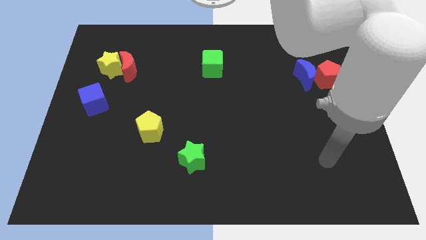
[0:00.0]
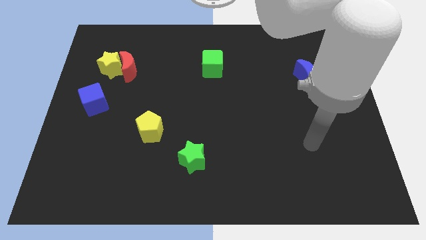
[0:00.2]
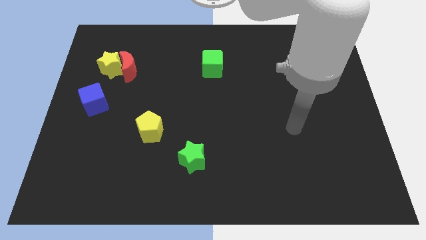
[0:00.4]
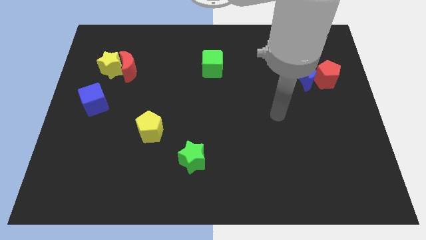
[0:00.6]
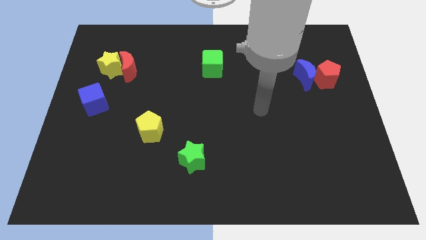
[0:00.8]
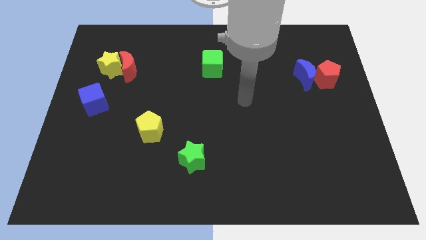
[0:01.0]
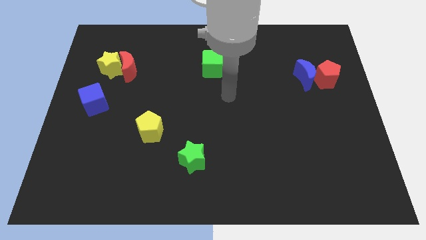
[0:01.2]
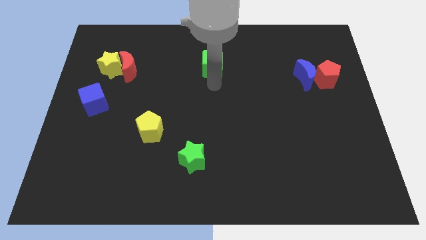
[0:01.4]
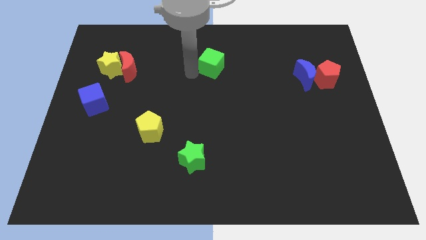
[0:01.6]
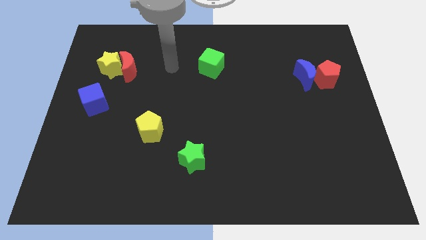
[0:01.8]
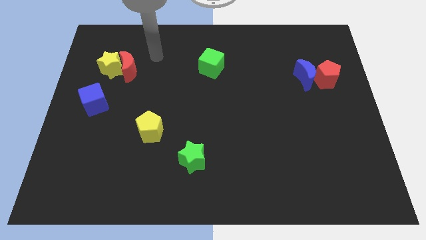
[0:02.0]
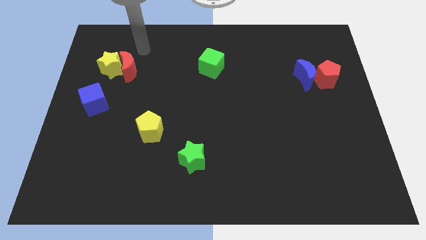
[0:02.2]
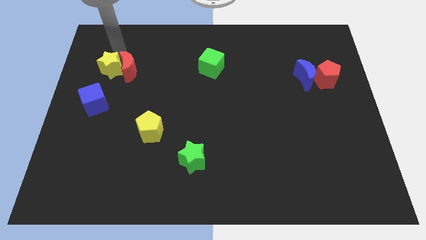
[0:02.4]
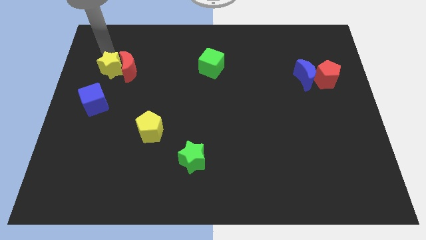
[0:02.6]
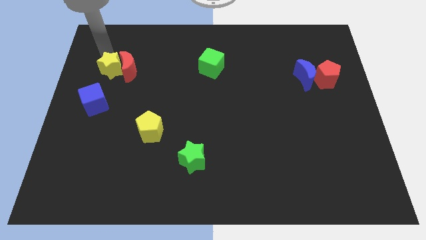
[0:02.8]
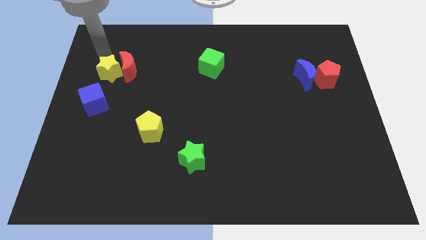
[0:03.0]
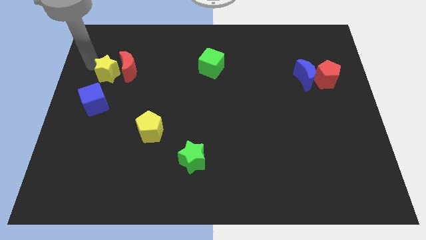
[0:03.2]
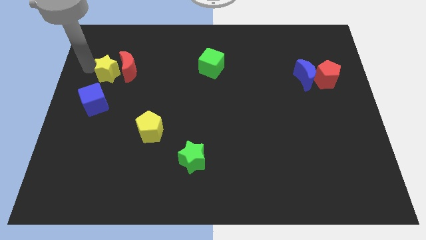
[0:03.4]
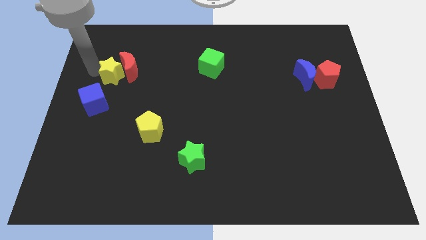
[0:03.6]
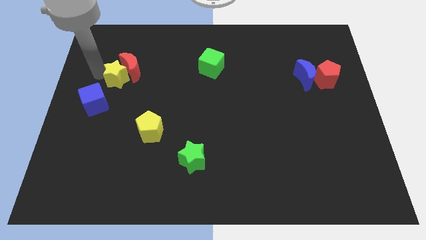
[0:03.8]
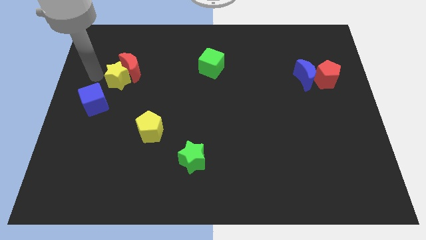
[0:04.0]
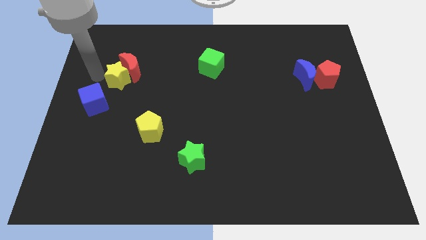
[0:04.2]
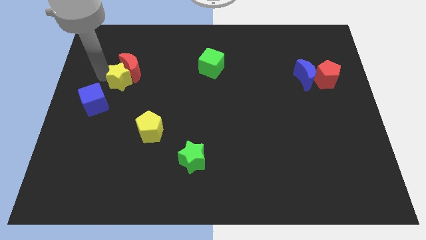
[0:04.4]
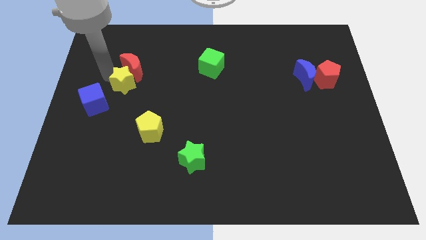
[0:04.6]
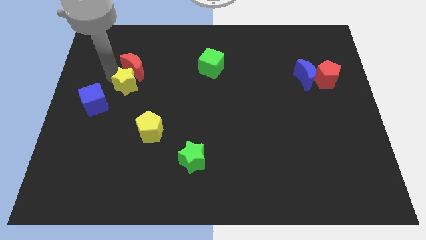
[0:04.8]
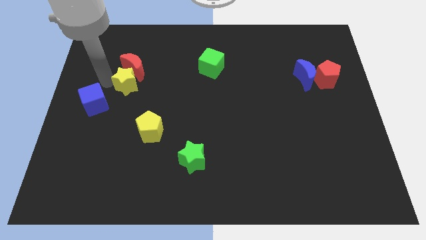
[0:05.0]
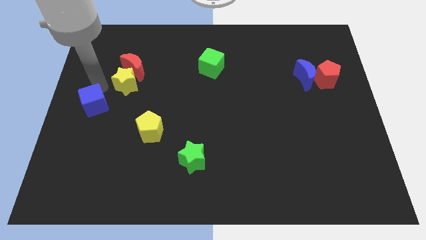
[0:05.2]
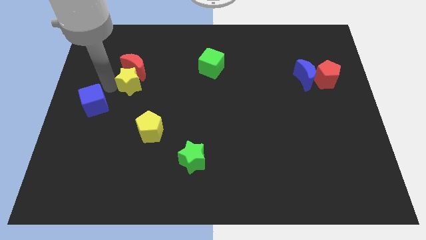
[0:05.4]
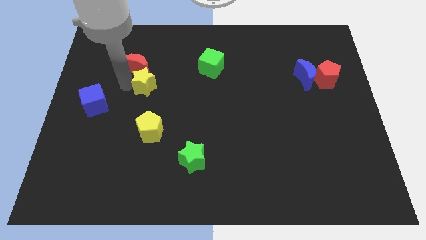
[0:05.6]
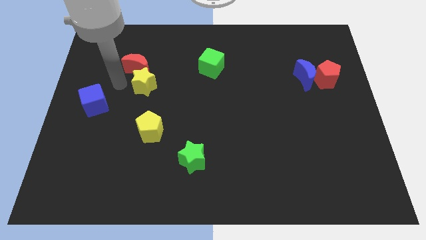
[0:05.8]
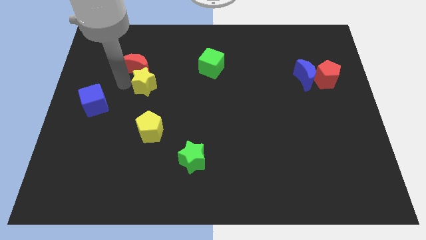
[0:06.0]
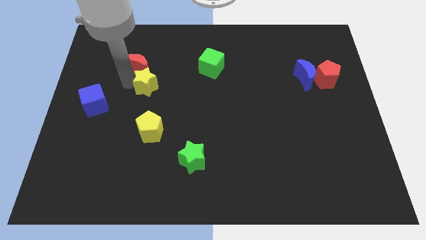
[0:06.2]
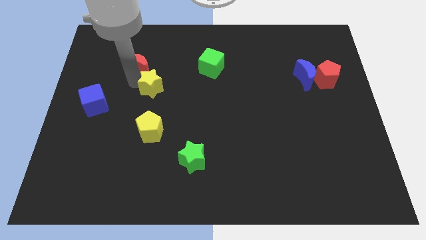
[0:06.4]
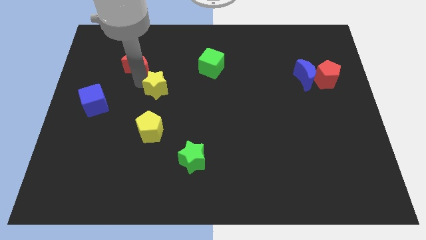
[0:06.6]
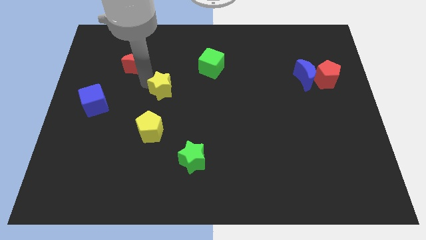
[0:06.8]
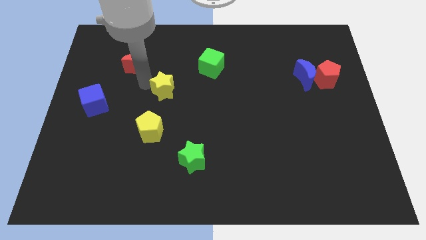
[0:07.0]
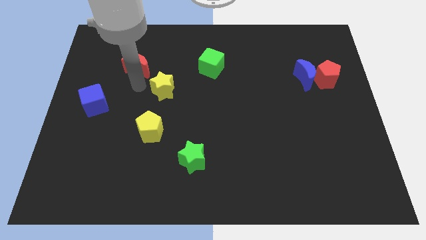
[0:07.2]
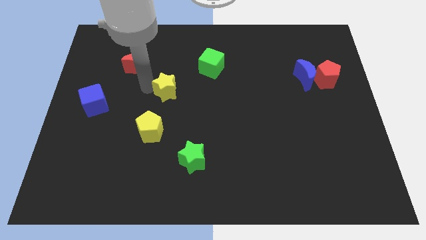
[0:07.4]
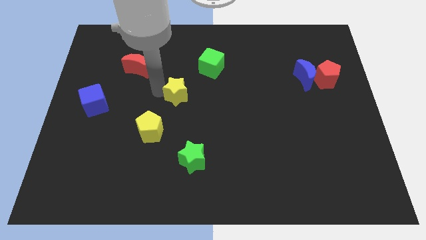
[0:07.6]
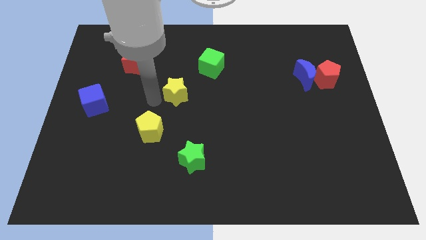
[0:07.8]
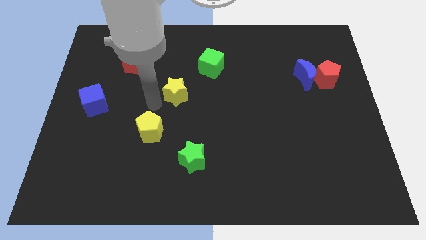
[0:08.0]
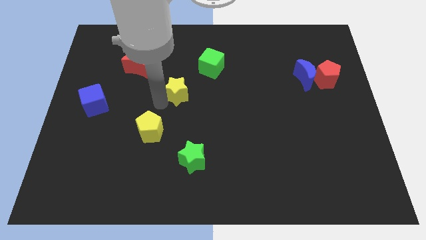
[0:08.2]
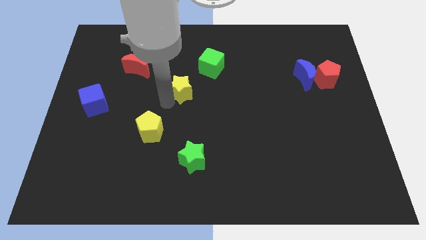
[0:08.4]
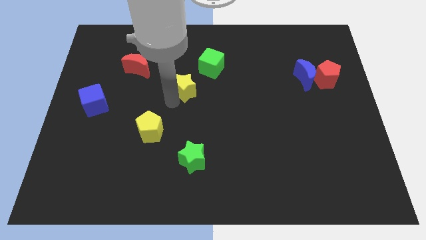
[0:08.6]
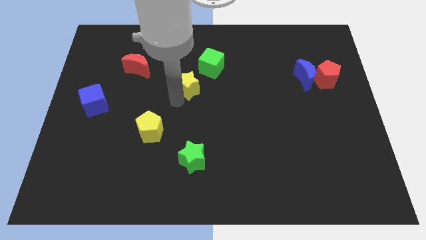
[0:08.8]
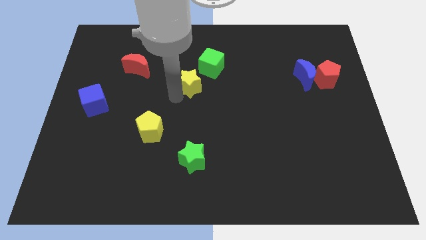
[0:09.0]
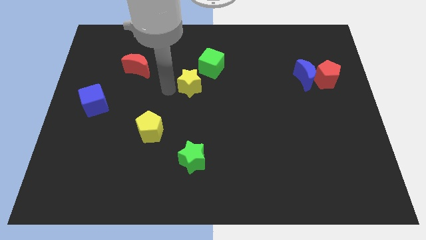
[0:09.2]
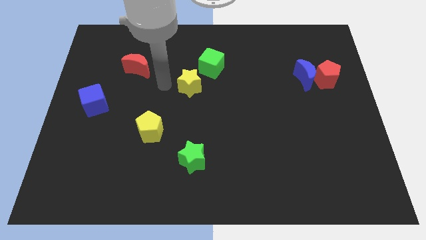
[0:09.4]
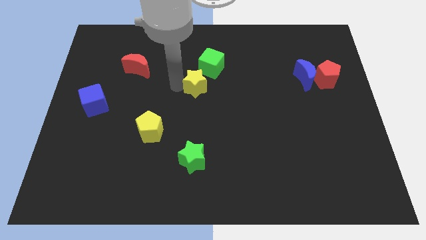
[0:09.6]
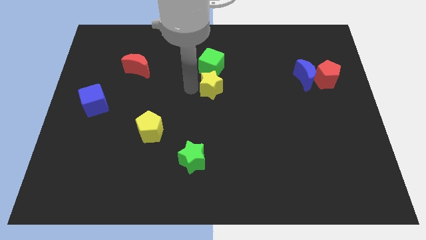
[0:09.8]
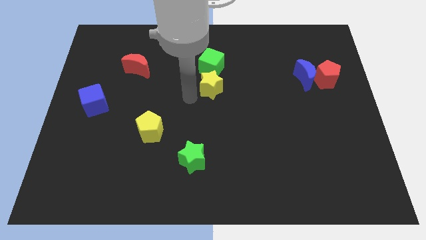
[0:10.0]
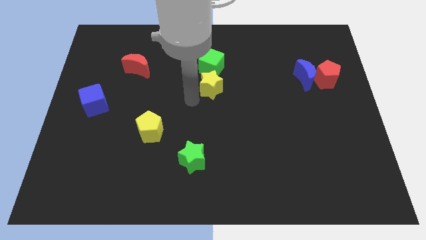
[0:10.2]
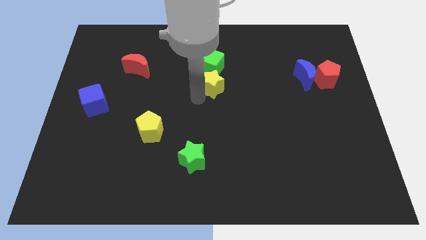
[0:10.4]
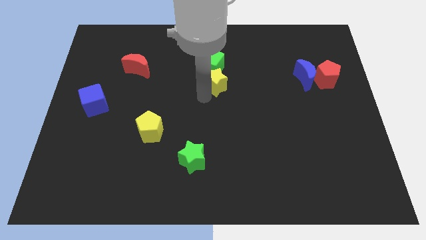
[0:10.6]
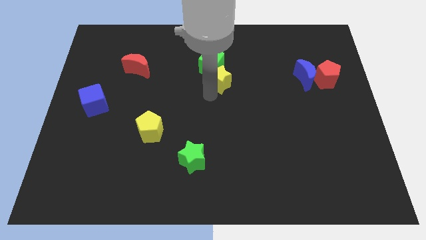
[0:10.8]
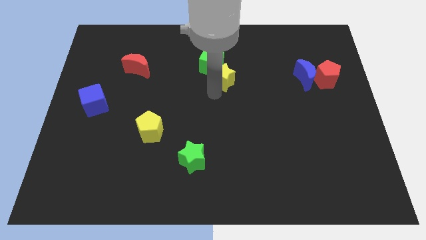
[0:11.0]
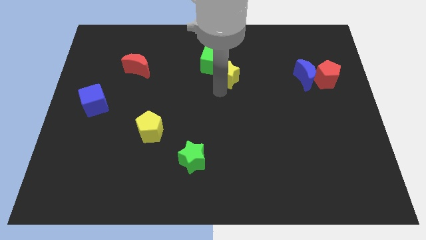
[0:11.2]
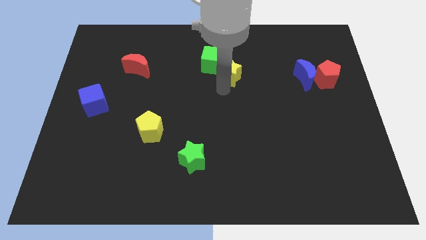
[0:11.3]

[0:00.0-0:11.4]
push the yellow star right of the green cube

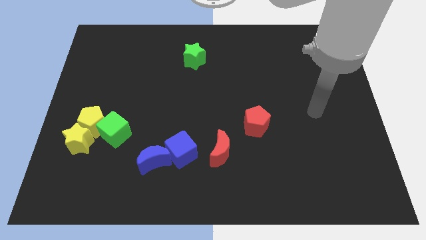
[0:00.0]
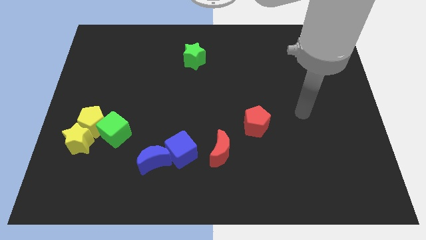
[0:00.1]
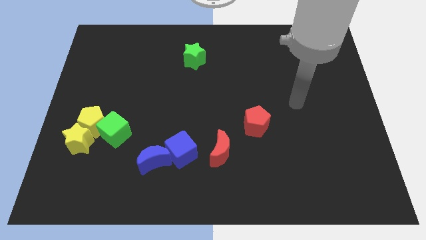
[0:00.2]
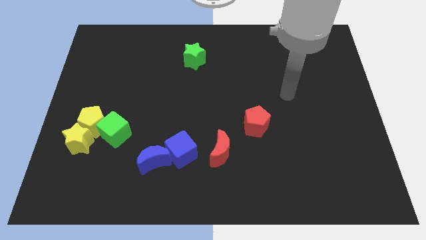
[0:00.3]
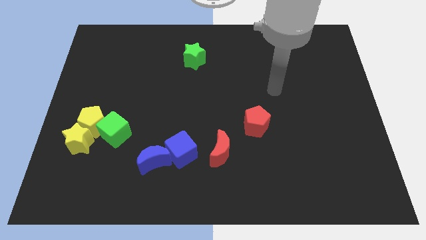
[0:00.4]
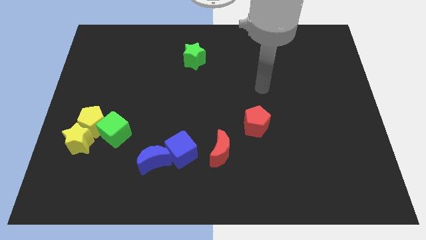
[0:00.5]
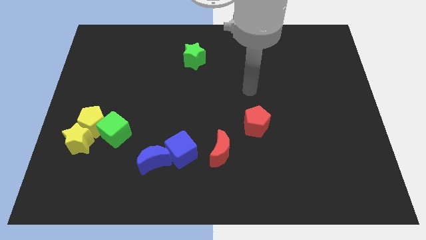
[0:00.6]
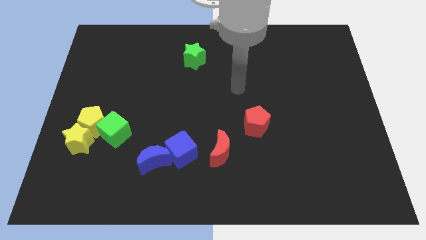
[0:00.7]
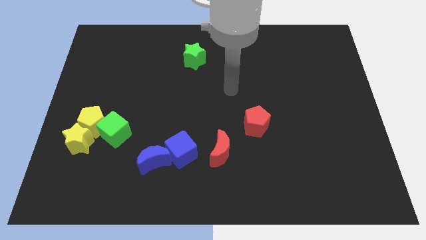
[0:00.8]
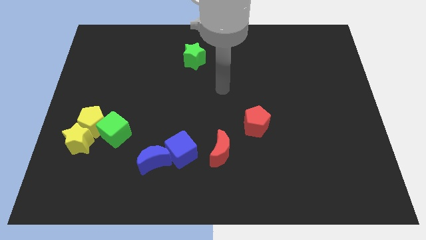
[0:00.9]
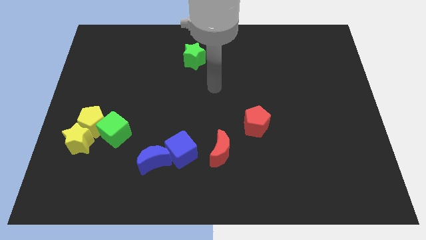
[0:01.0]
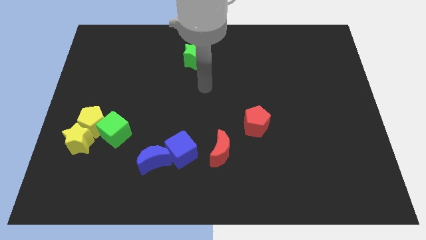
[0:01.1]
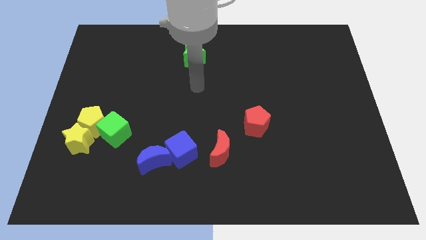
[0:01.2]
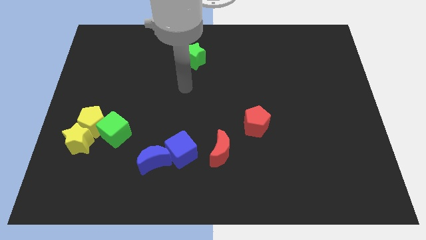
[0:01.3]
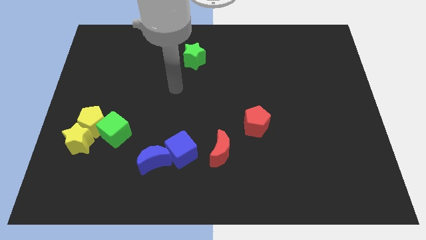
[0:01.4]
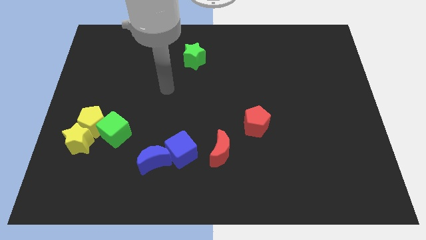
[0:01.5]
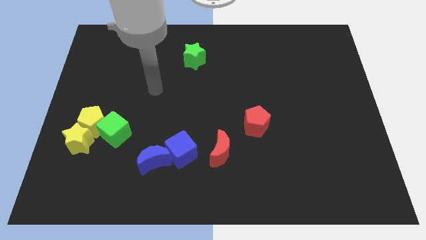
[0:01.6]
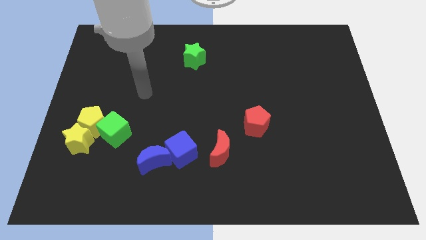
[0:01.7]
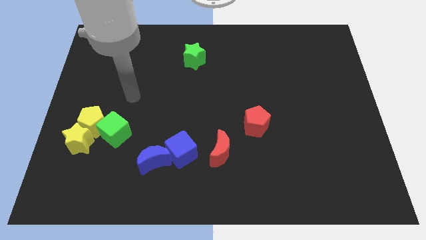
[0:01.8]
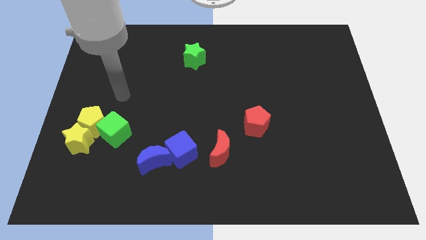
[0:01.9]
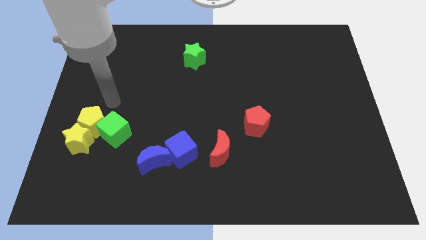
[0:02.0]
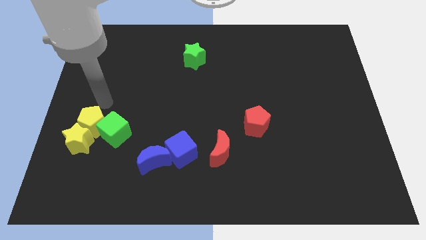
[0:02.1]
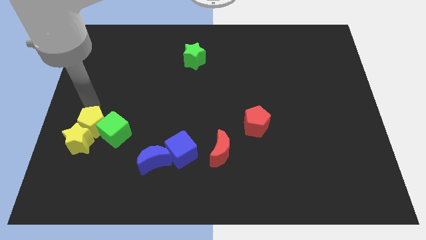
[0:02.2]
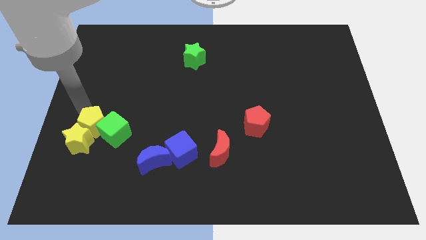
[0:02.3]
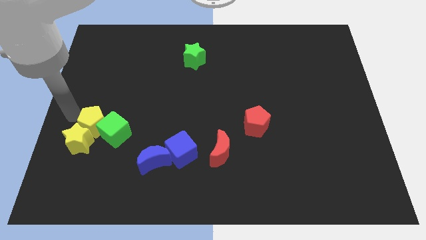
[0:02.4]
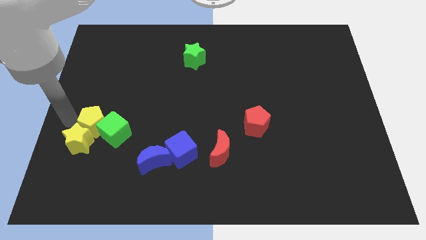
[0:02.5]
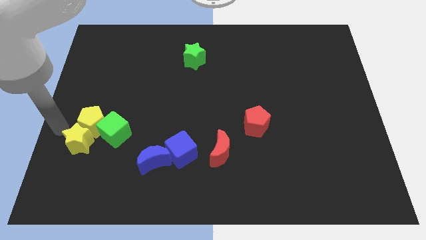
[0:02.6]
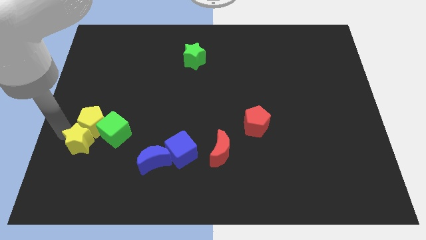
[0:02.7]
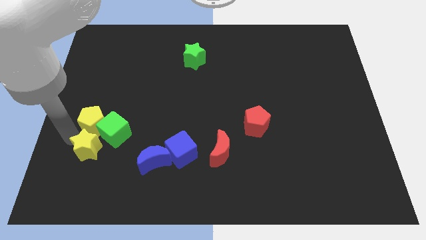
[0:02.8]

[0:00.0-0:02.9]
push the yellow star left of the blue moon
